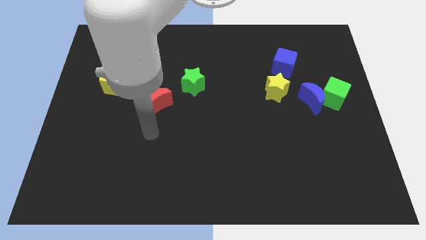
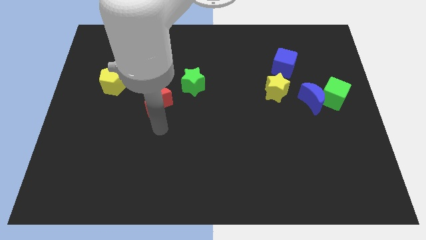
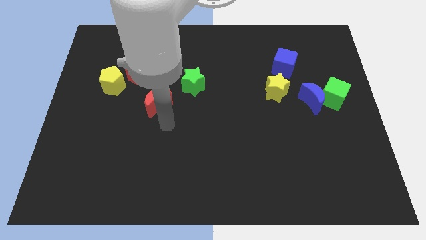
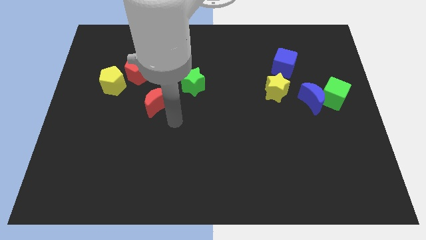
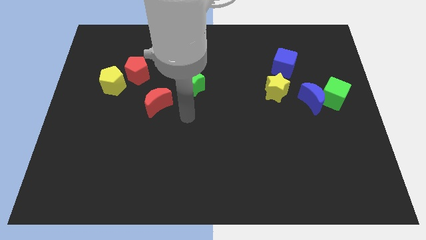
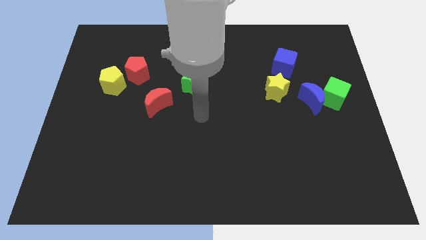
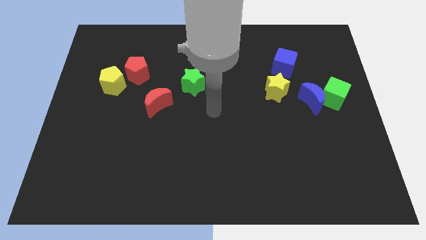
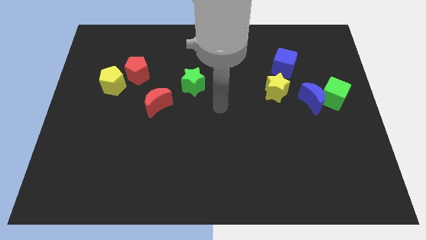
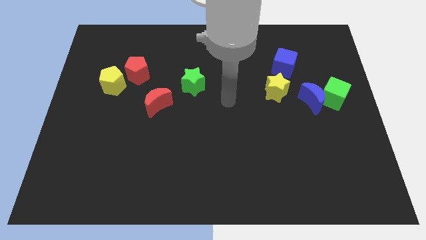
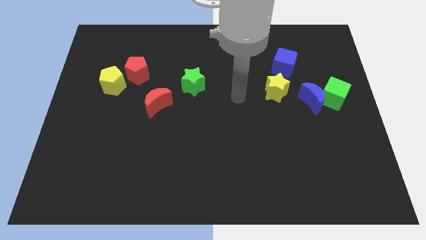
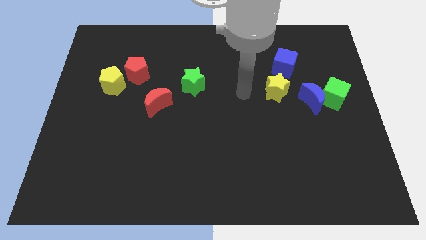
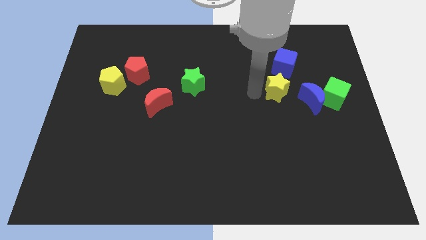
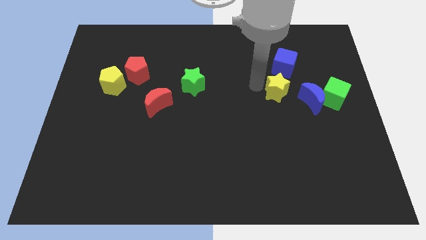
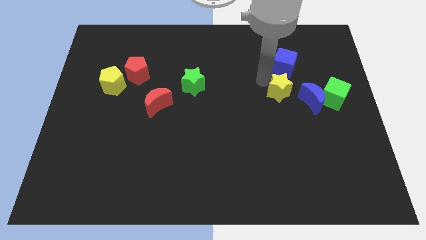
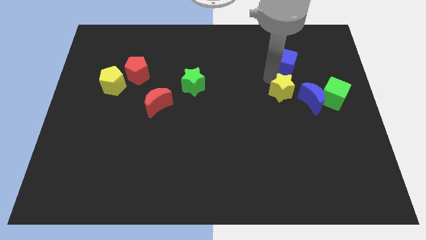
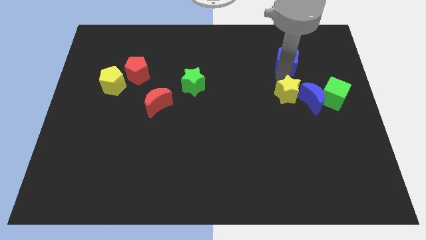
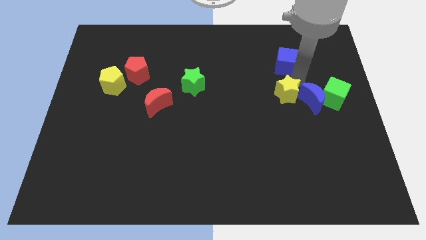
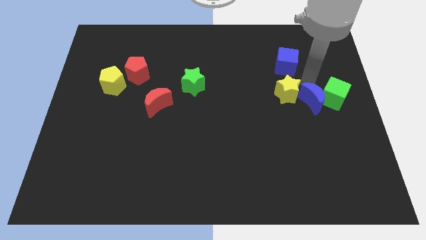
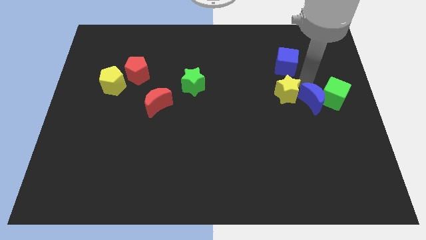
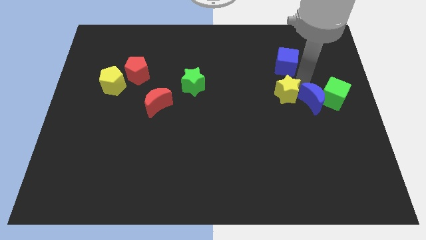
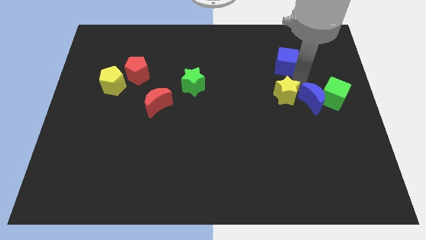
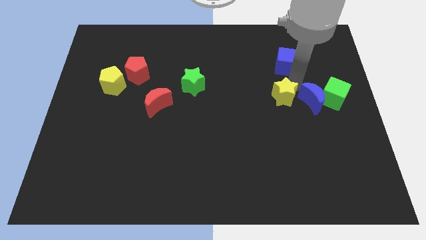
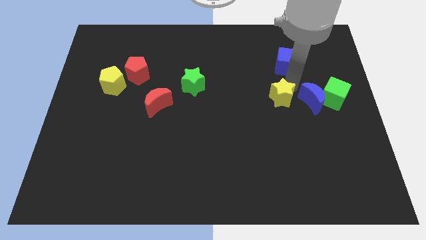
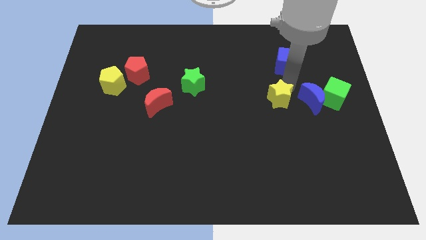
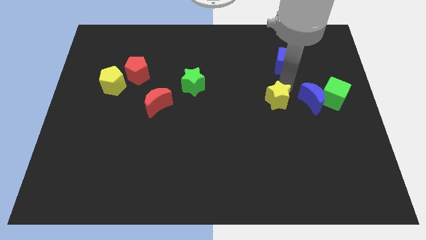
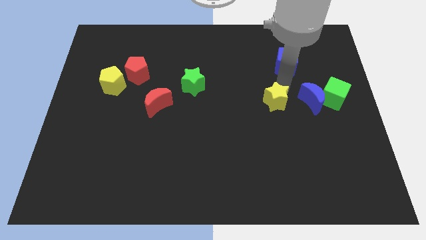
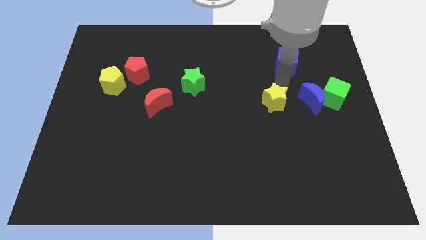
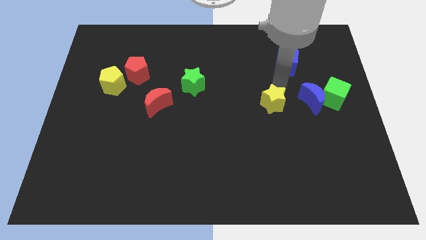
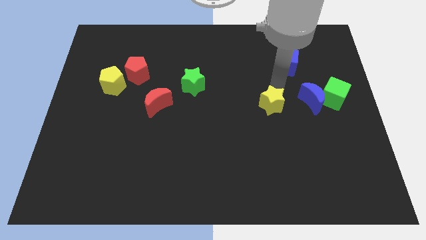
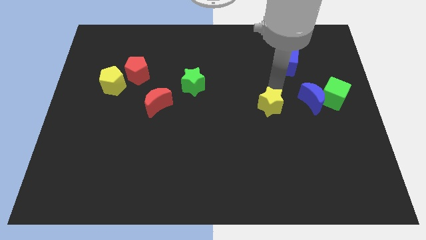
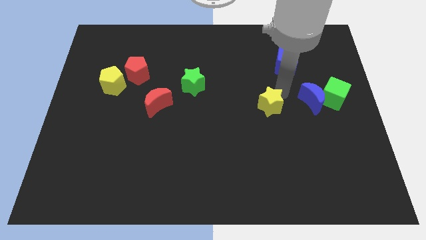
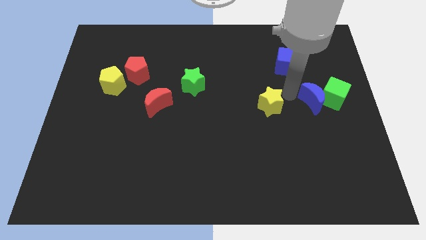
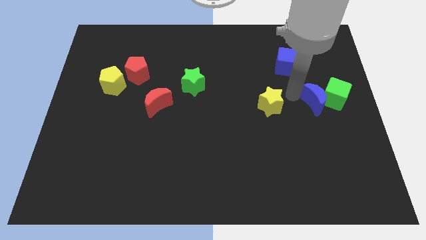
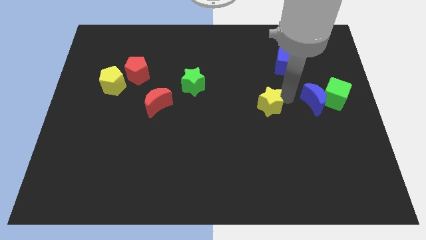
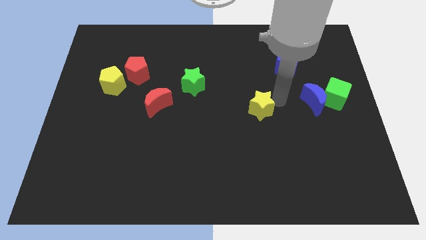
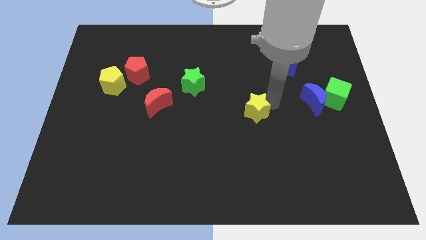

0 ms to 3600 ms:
move the yellow star a bit down and to the left diagonally

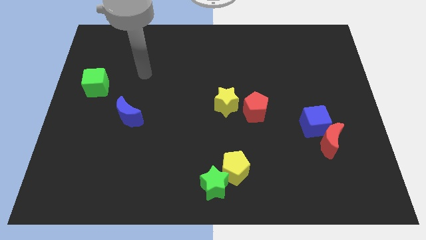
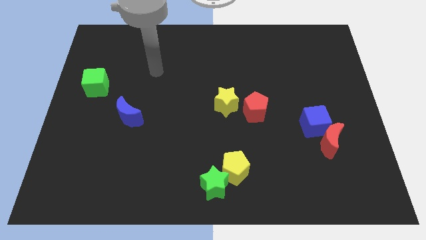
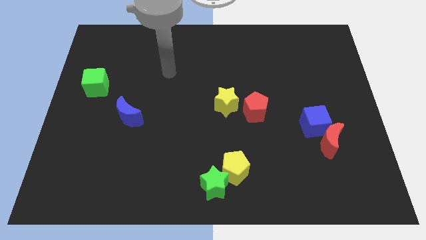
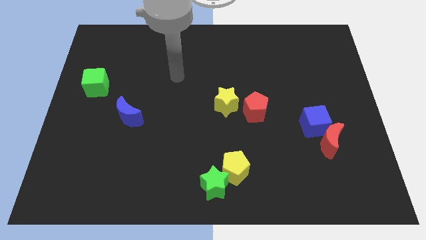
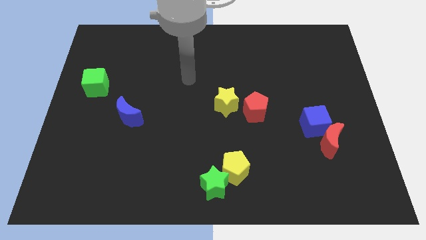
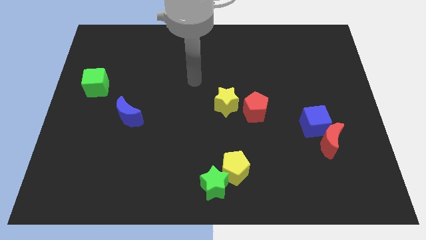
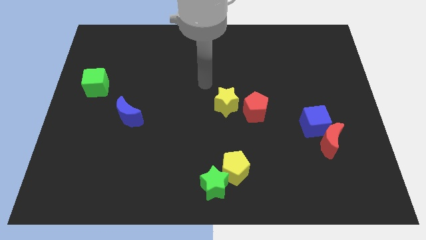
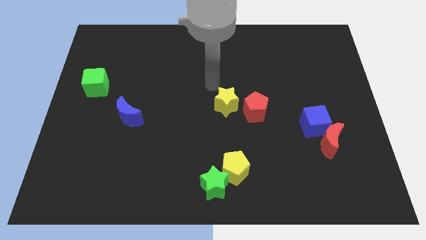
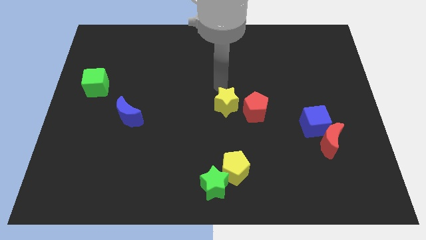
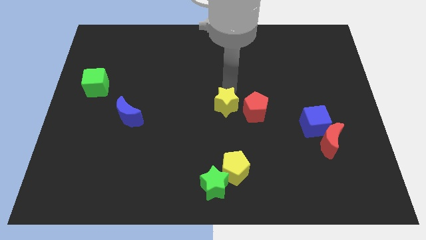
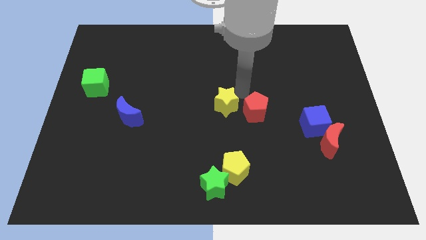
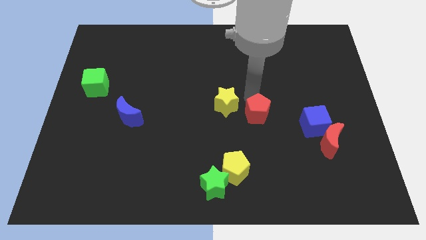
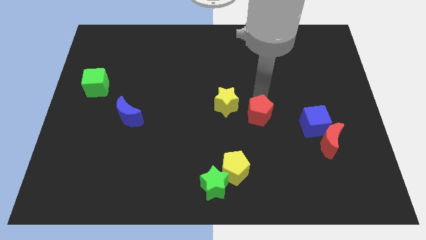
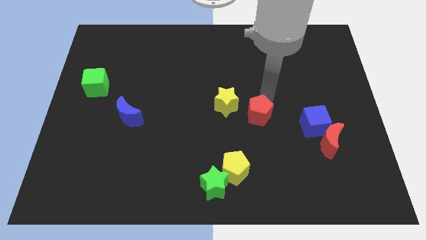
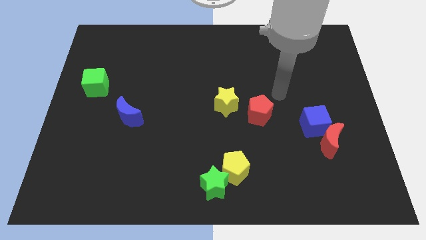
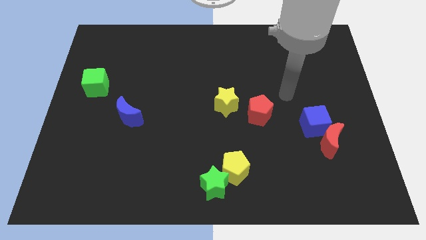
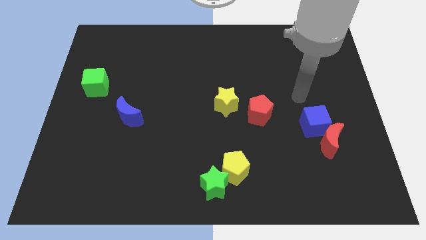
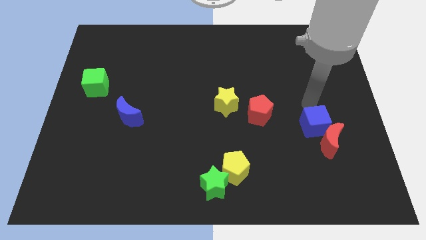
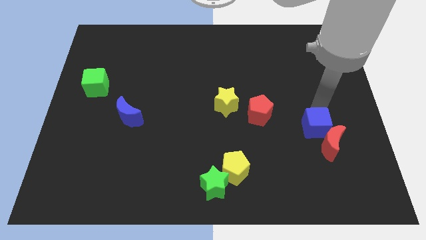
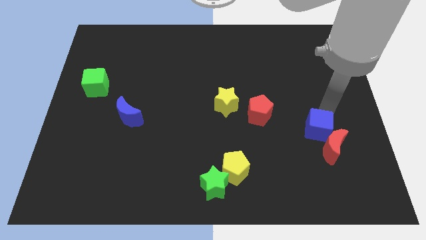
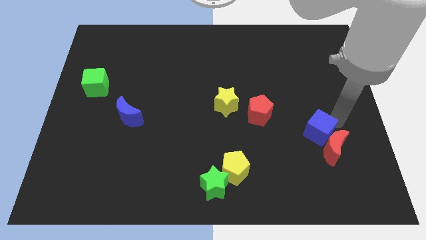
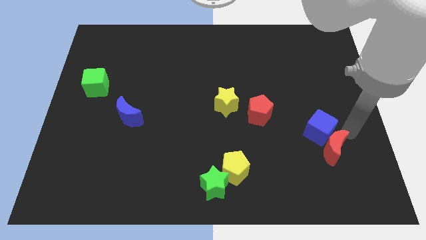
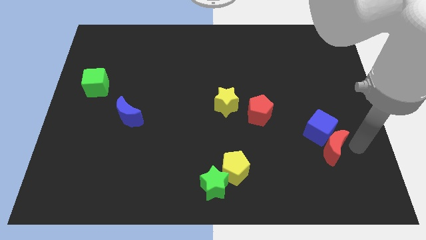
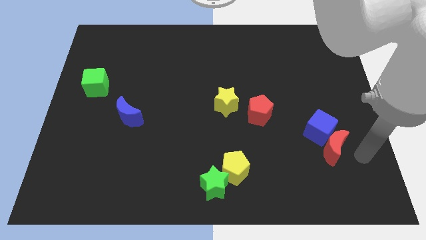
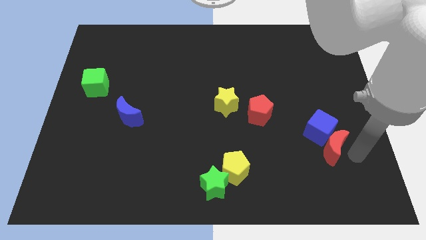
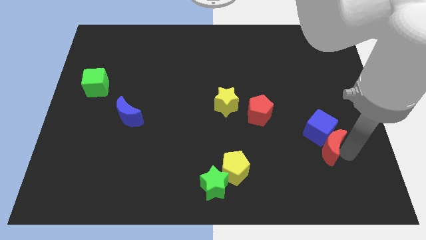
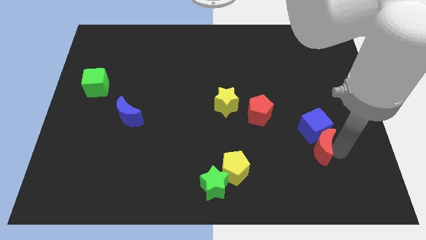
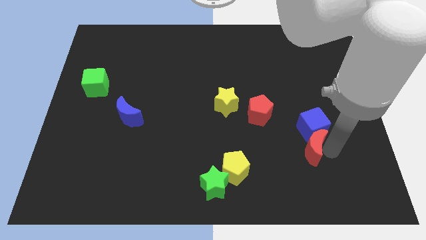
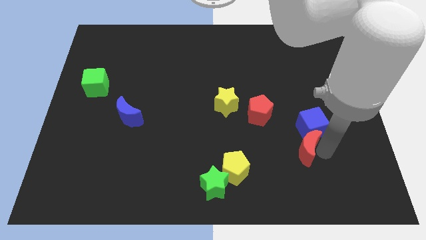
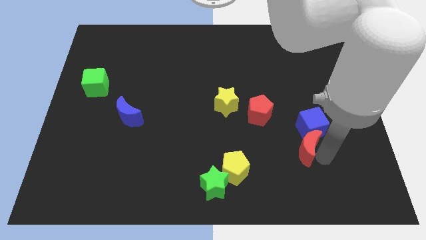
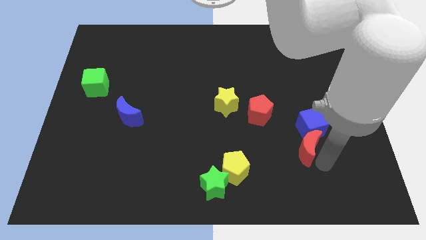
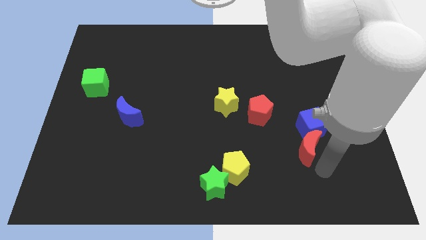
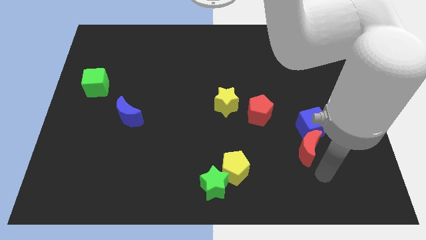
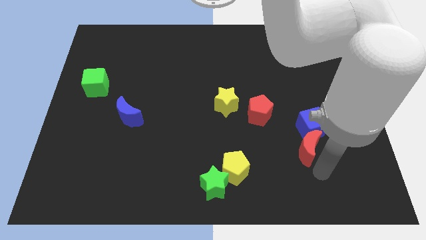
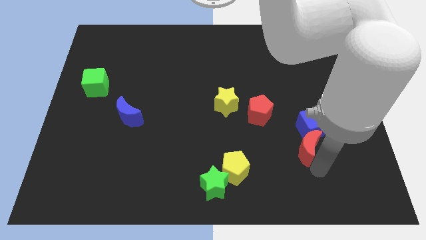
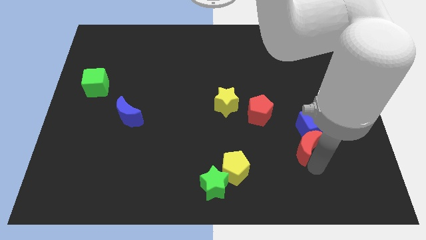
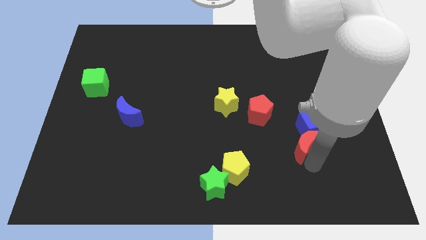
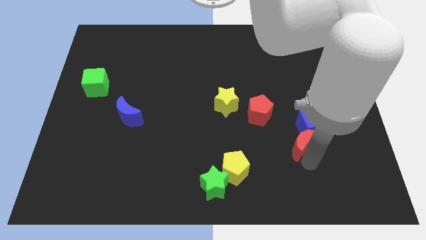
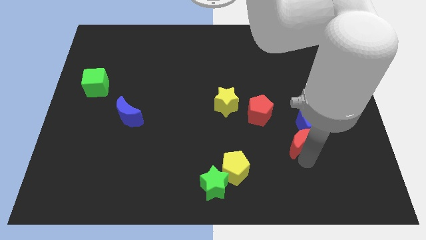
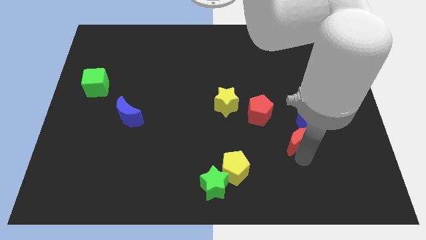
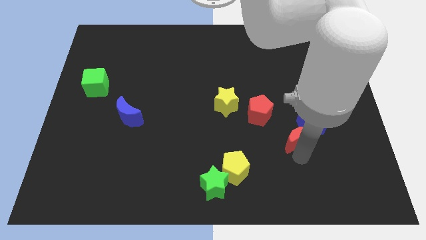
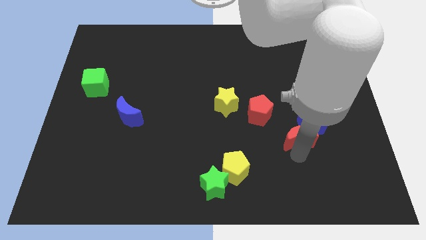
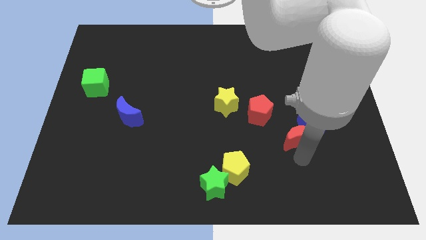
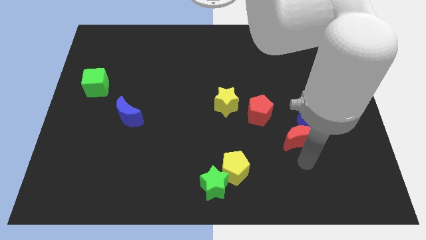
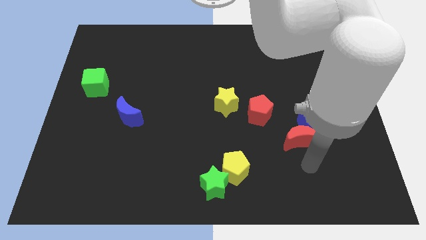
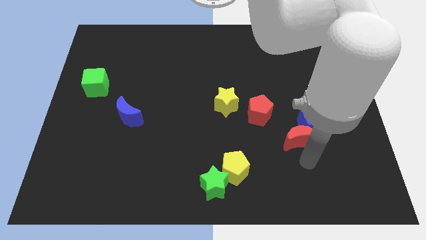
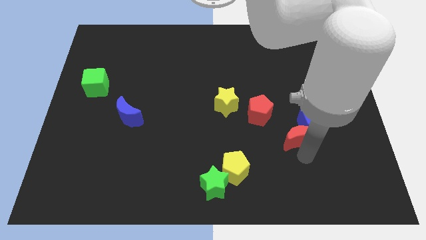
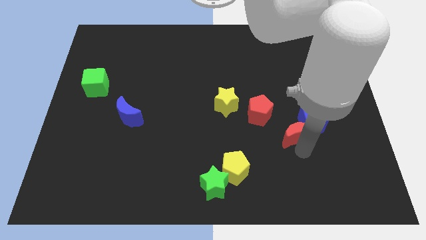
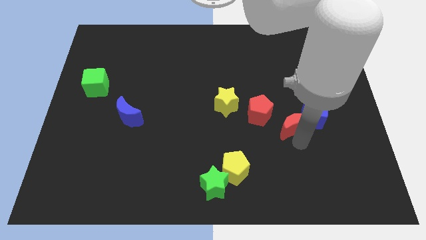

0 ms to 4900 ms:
slide the red moon a little bit diagonally up and to the left

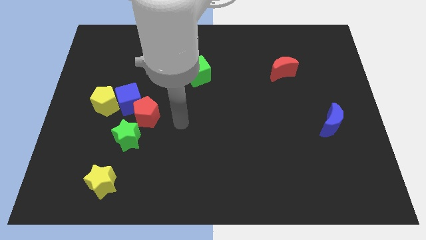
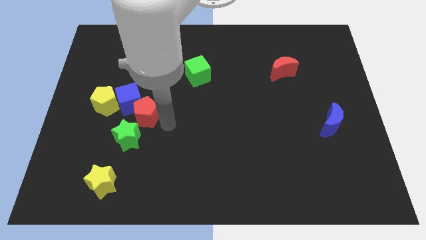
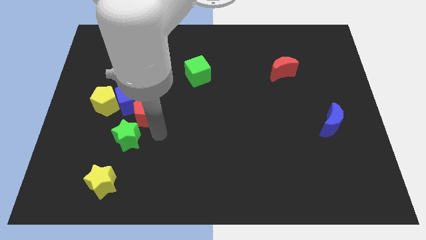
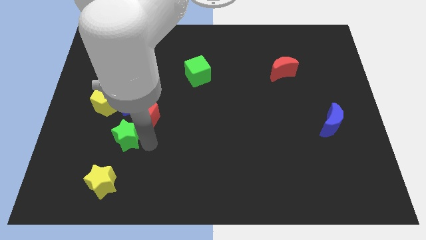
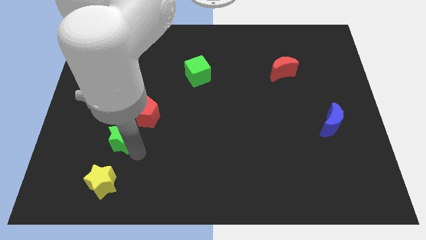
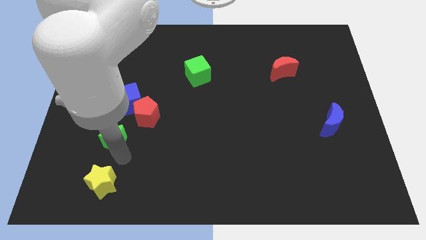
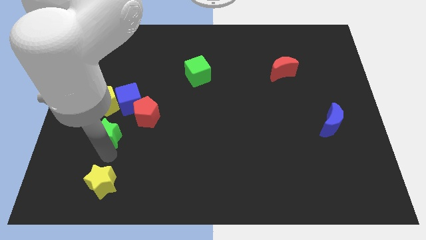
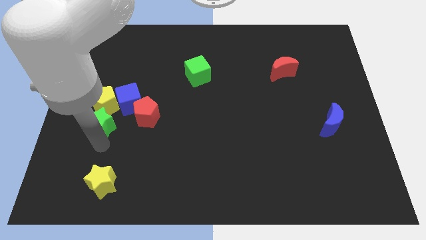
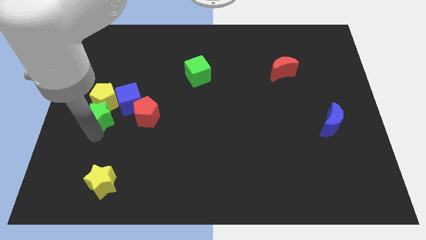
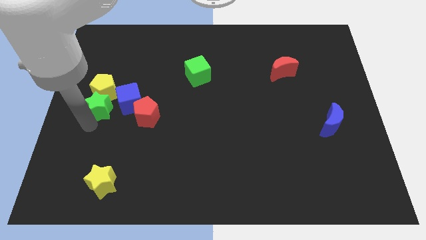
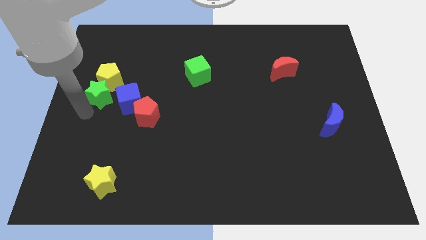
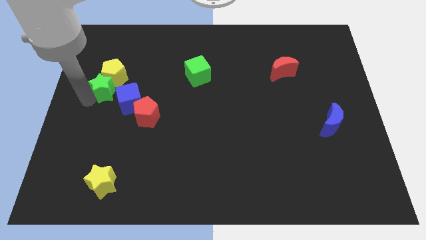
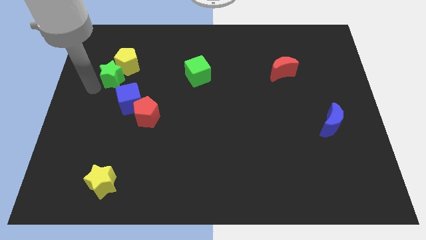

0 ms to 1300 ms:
slightly slide the yellow pentagon upwards and right
